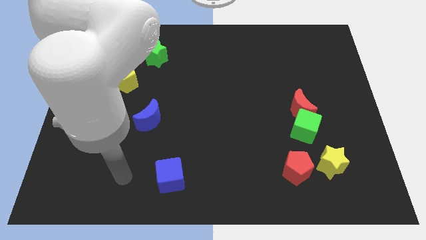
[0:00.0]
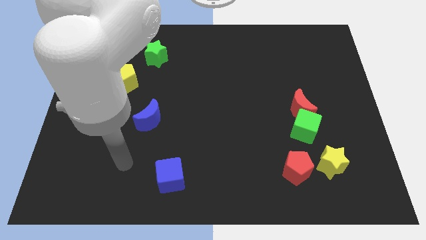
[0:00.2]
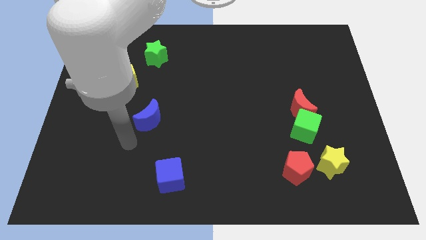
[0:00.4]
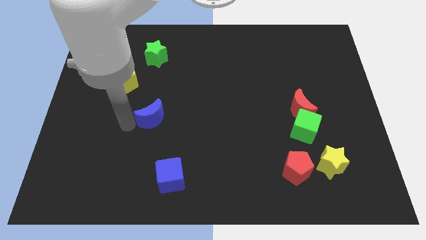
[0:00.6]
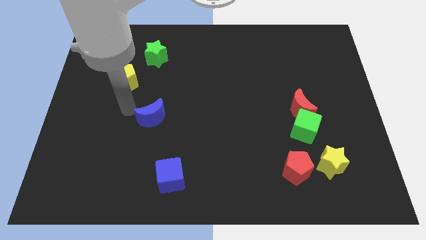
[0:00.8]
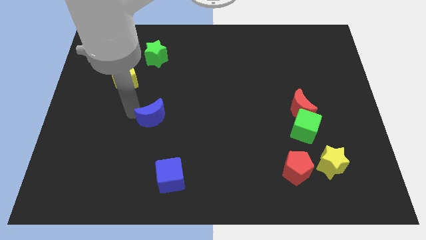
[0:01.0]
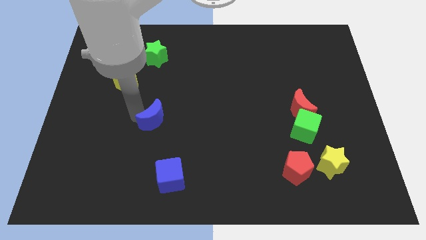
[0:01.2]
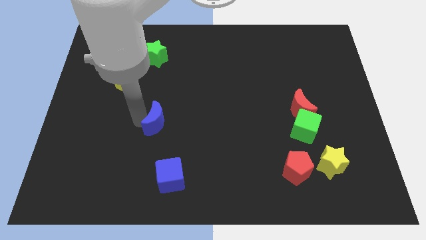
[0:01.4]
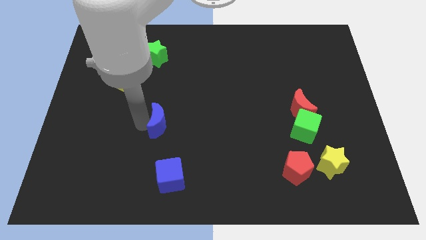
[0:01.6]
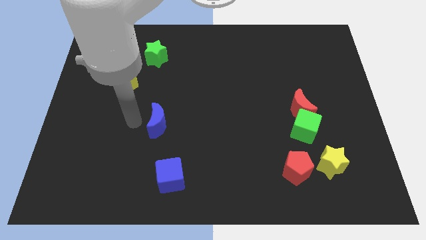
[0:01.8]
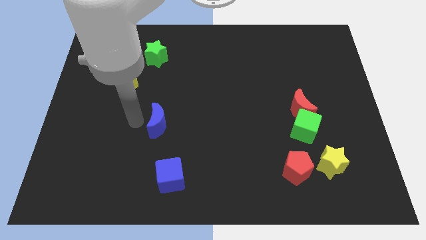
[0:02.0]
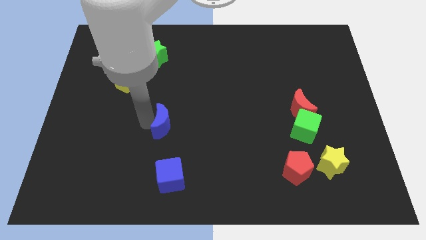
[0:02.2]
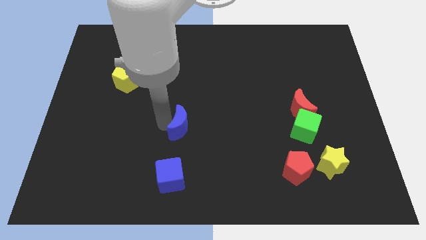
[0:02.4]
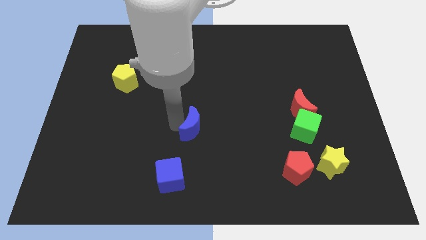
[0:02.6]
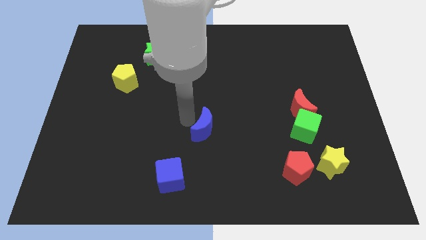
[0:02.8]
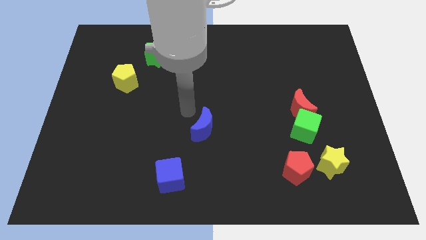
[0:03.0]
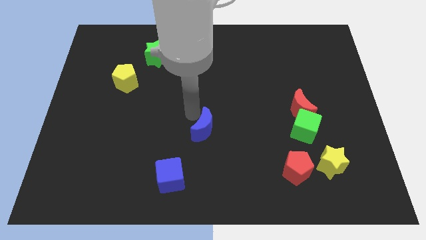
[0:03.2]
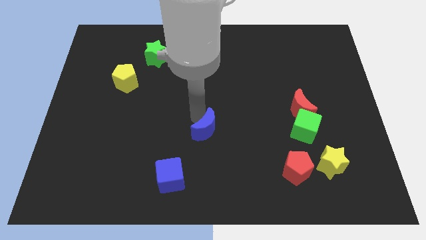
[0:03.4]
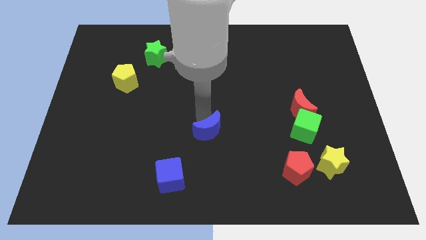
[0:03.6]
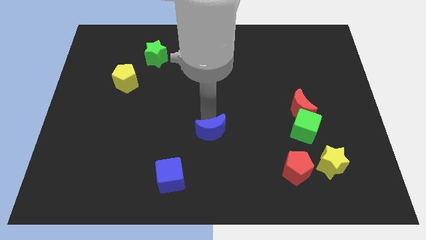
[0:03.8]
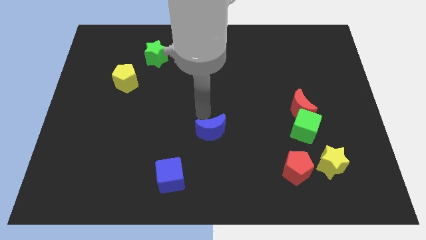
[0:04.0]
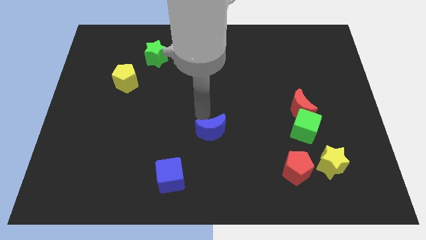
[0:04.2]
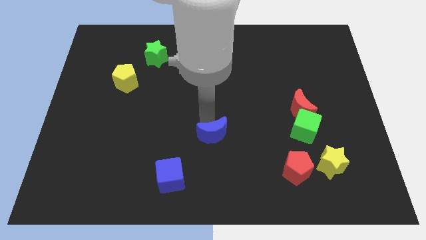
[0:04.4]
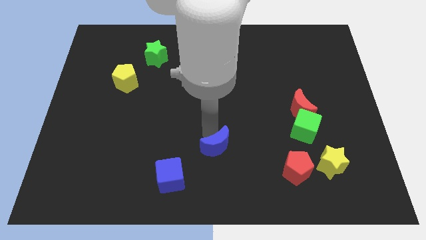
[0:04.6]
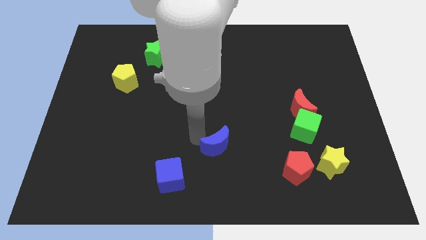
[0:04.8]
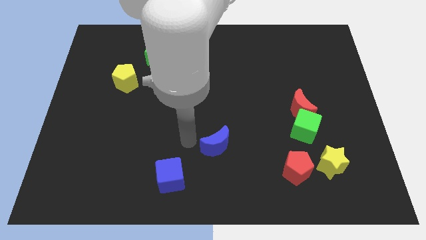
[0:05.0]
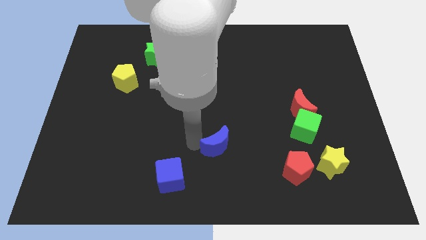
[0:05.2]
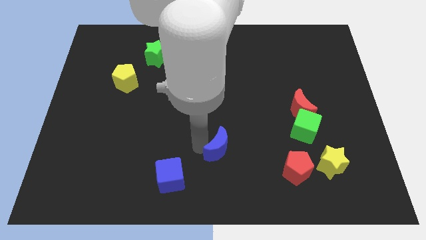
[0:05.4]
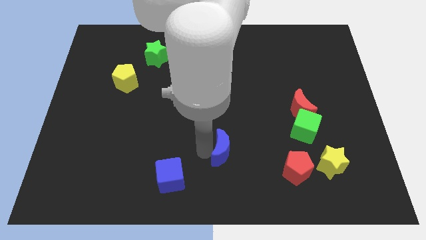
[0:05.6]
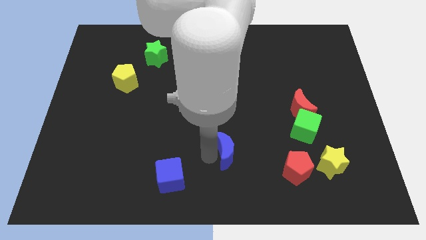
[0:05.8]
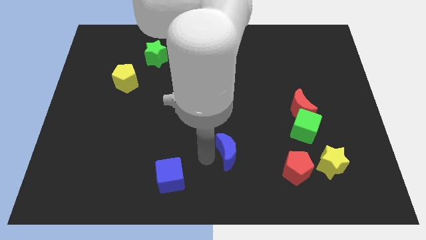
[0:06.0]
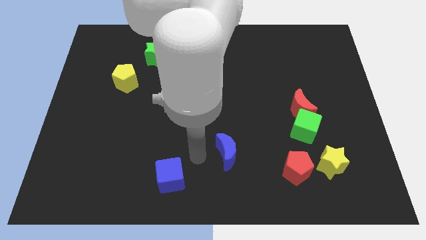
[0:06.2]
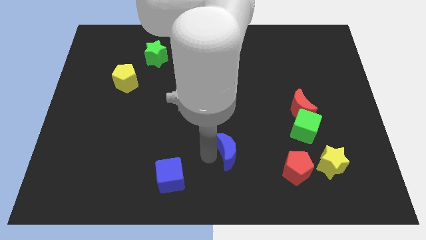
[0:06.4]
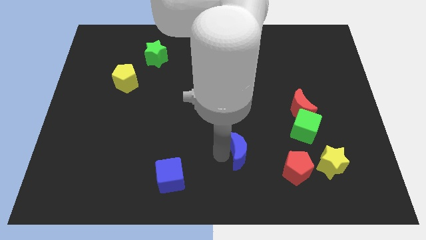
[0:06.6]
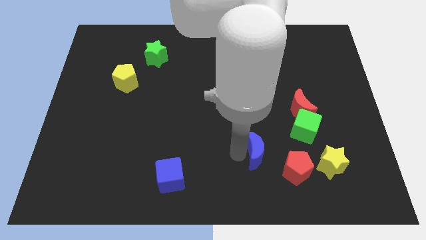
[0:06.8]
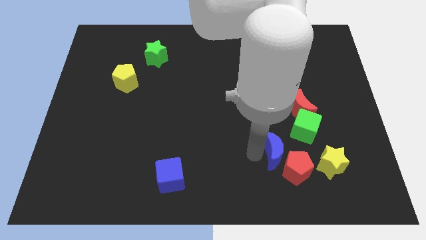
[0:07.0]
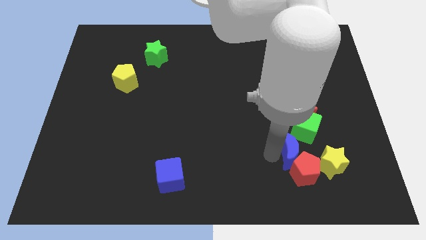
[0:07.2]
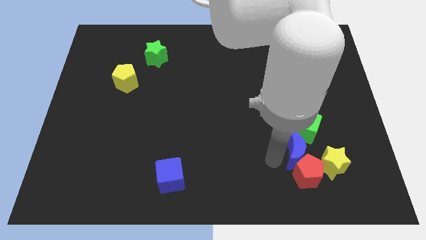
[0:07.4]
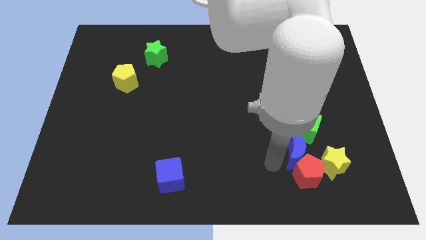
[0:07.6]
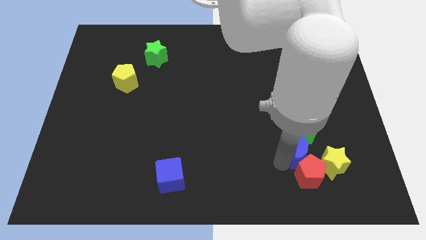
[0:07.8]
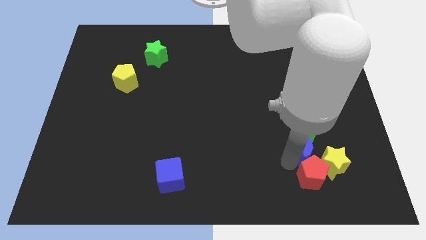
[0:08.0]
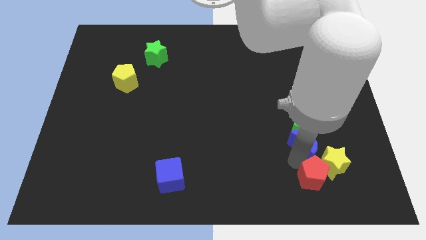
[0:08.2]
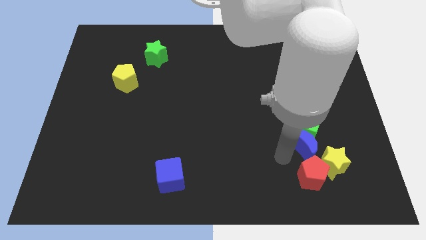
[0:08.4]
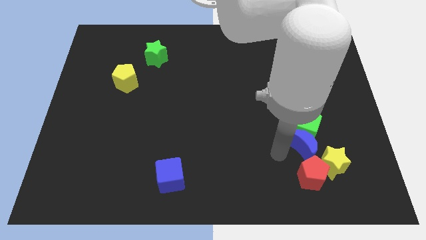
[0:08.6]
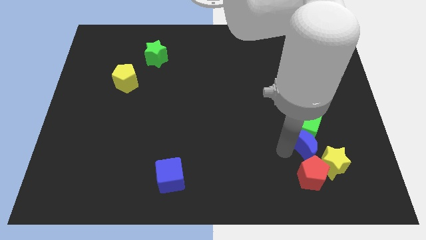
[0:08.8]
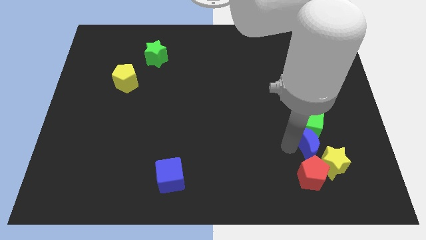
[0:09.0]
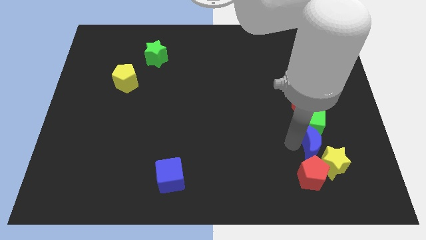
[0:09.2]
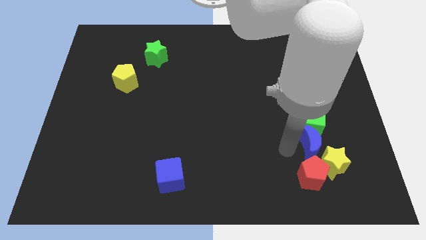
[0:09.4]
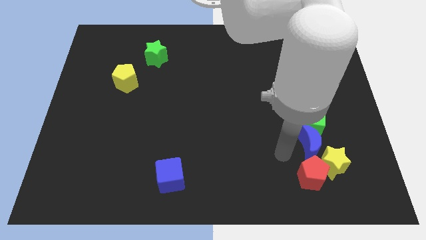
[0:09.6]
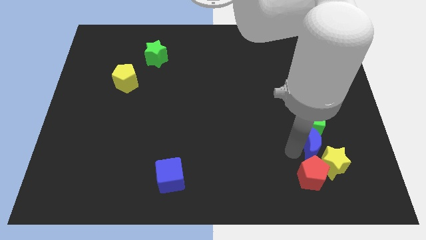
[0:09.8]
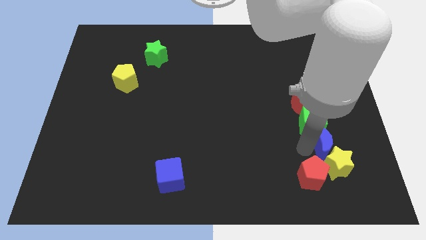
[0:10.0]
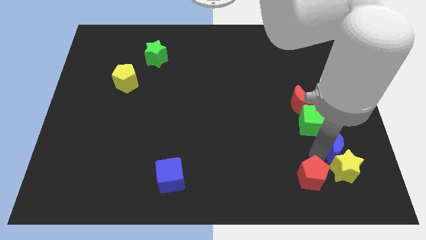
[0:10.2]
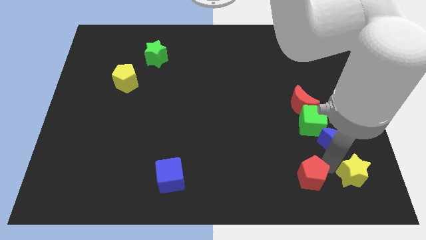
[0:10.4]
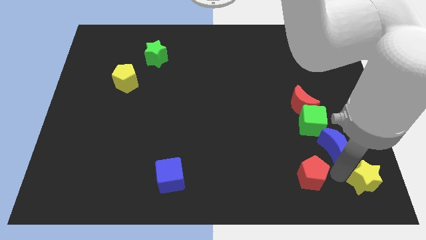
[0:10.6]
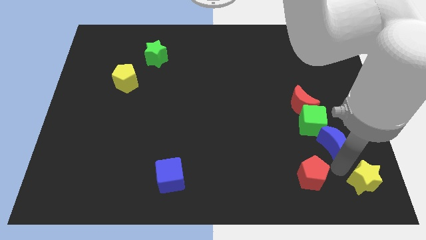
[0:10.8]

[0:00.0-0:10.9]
push the blue moon to the bottom right of the red moon

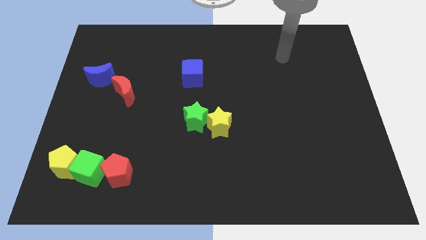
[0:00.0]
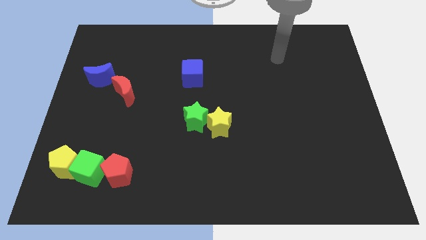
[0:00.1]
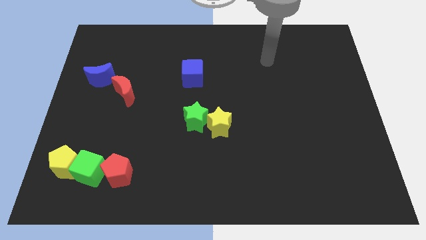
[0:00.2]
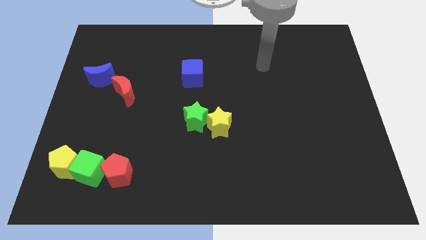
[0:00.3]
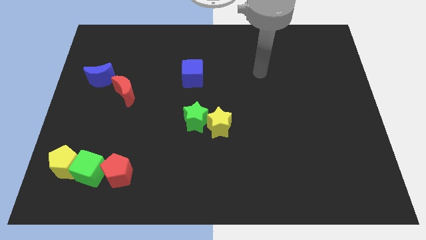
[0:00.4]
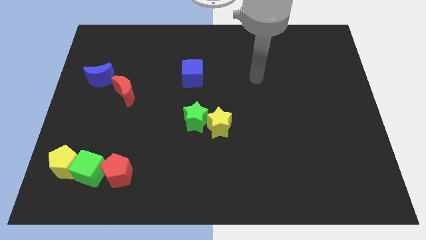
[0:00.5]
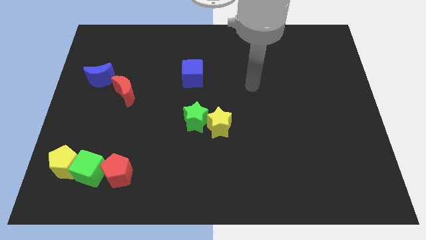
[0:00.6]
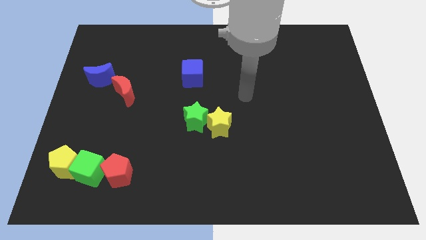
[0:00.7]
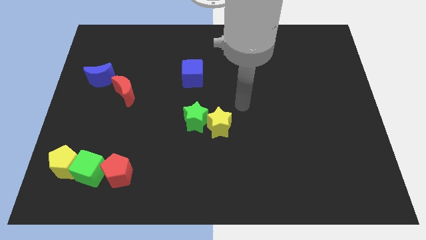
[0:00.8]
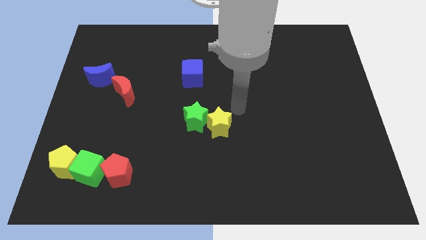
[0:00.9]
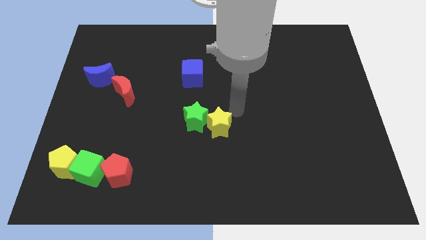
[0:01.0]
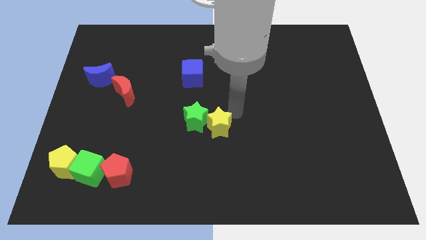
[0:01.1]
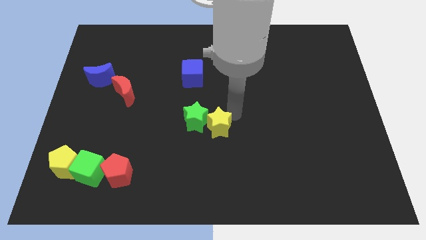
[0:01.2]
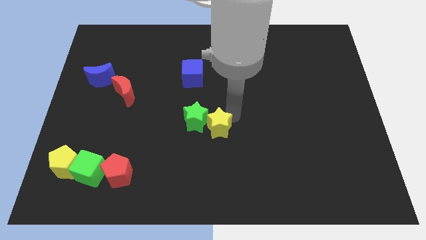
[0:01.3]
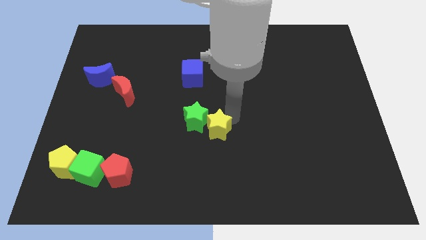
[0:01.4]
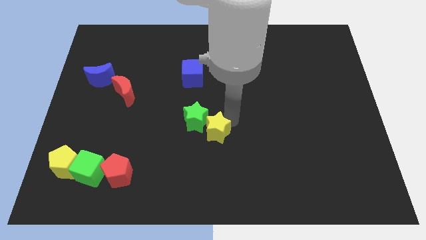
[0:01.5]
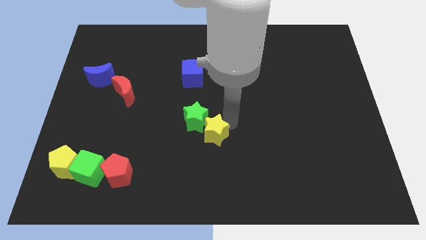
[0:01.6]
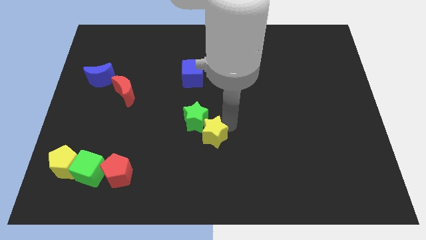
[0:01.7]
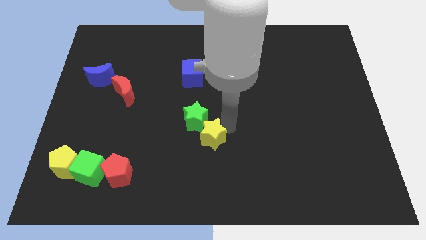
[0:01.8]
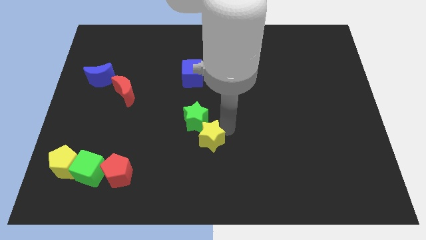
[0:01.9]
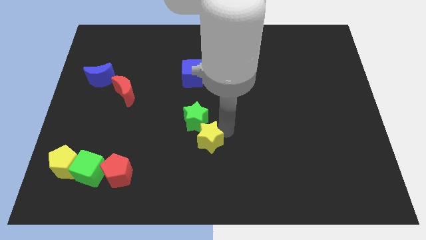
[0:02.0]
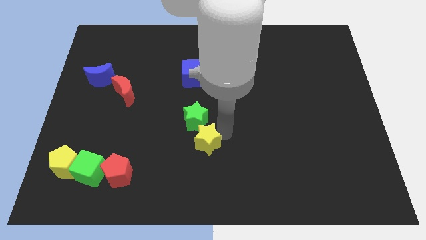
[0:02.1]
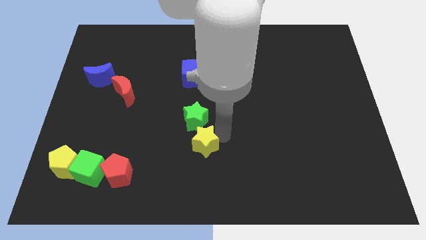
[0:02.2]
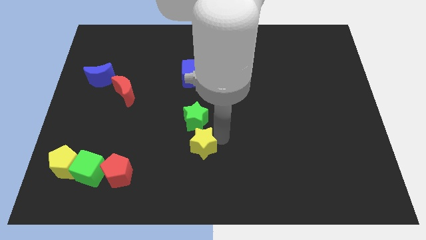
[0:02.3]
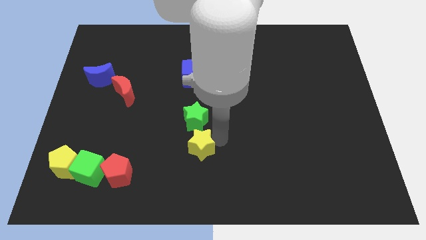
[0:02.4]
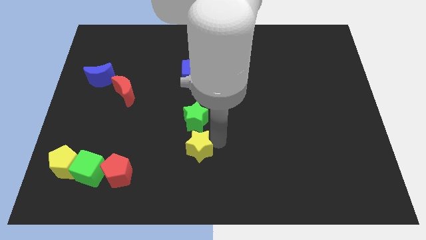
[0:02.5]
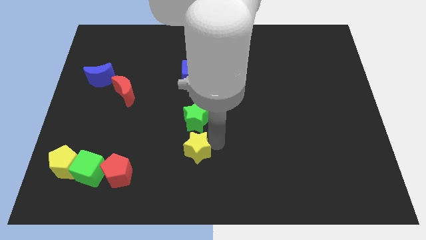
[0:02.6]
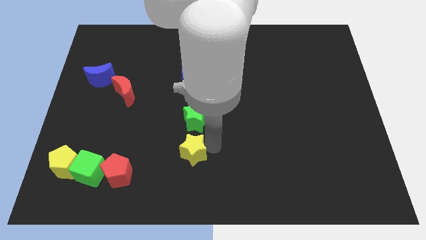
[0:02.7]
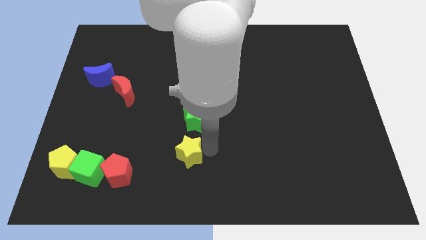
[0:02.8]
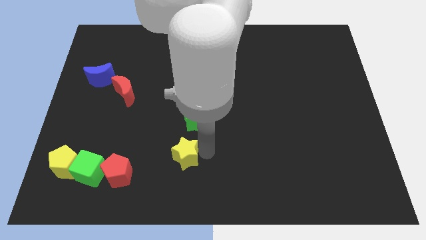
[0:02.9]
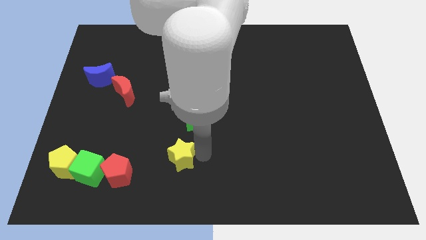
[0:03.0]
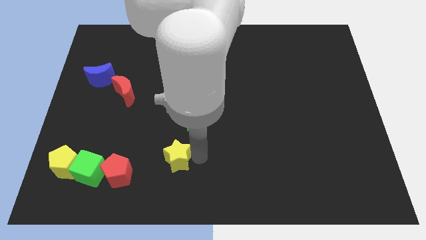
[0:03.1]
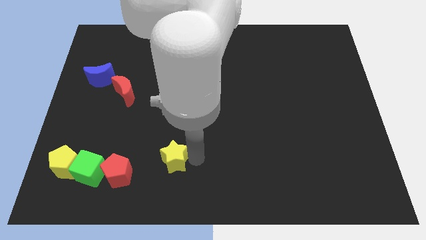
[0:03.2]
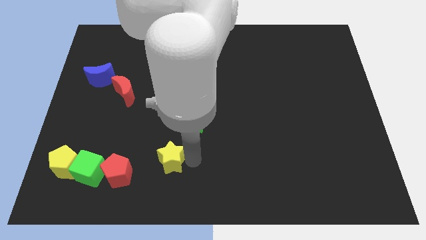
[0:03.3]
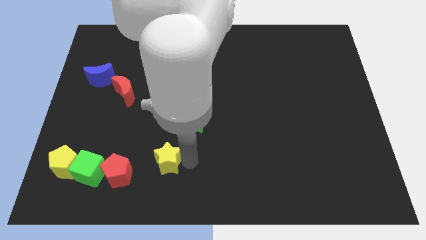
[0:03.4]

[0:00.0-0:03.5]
slide the yellow star diagonally up and to the right of the red pentagon
